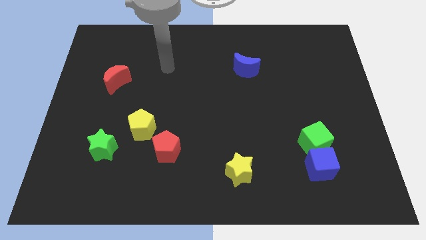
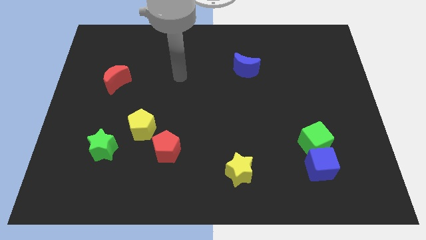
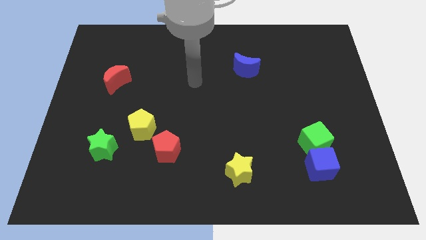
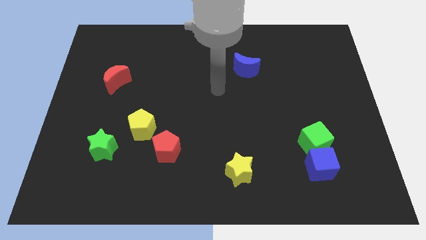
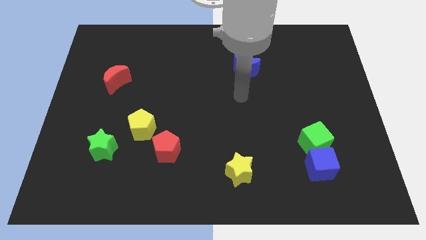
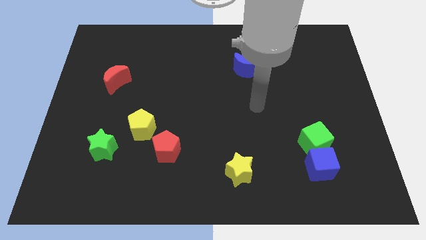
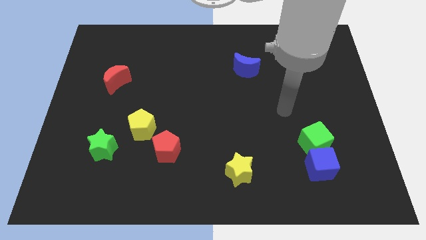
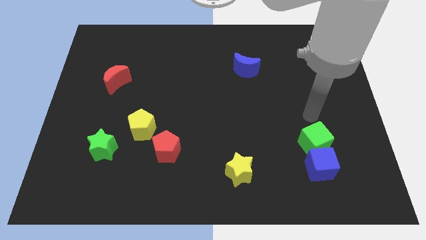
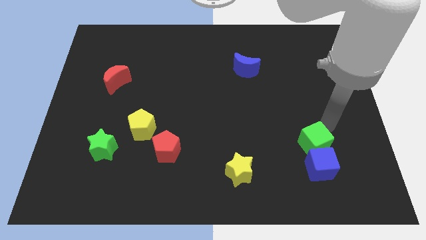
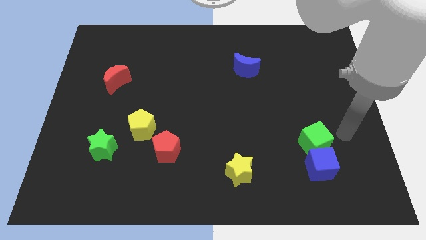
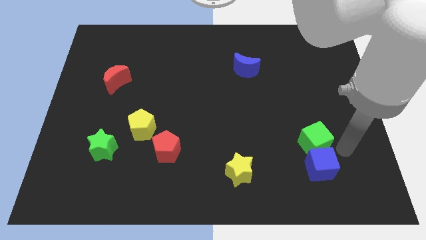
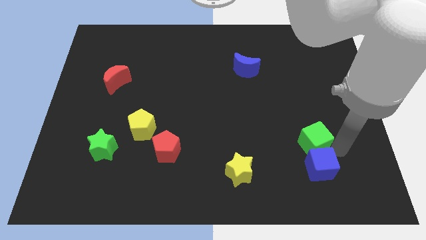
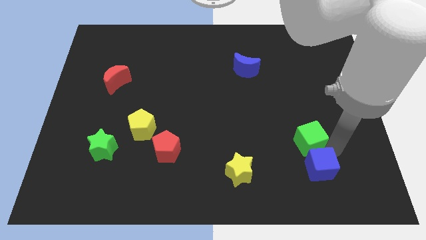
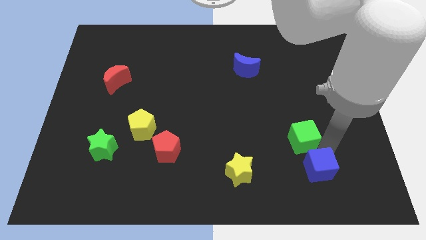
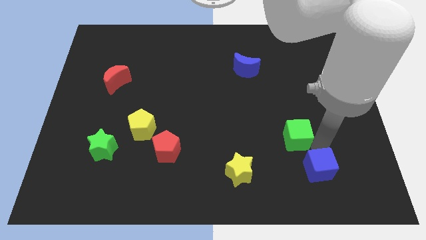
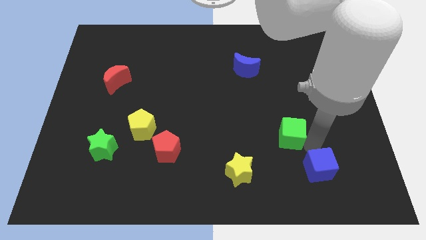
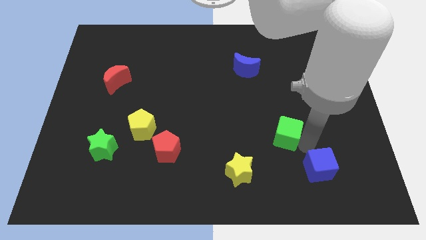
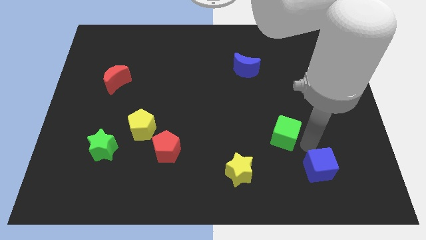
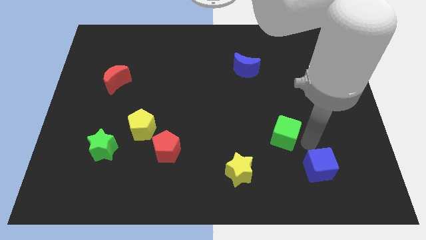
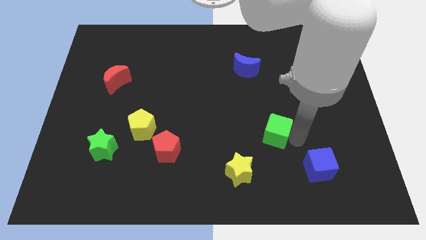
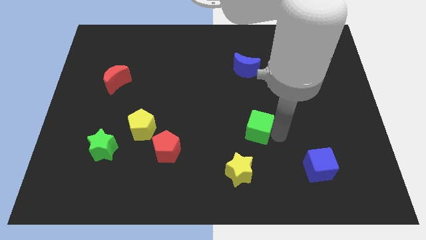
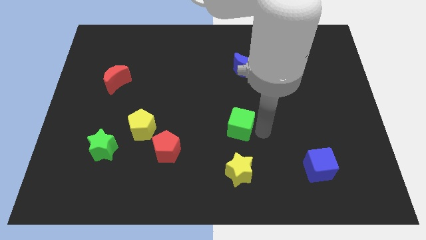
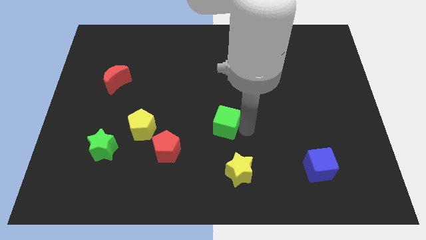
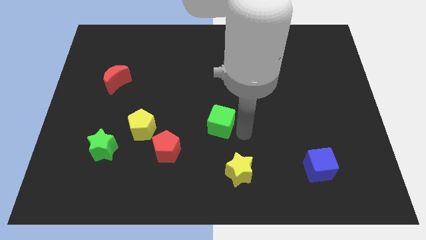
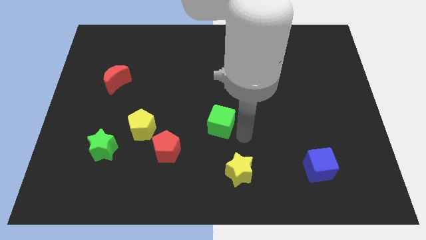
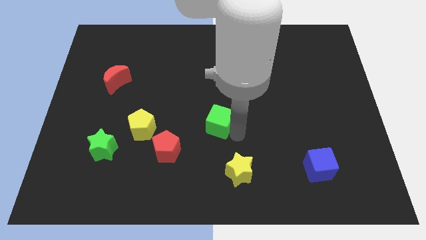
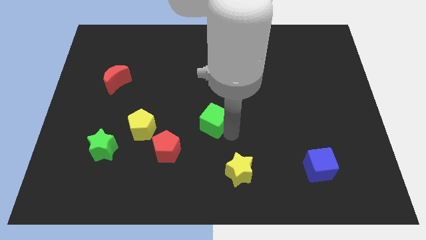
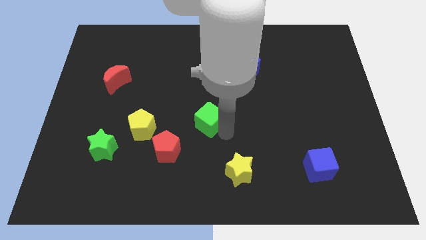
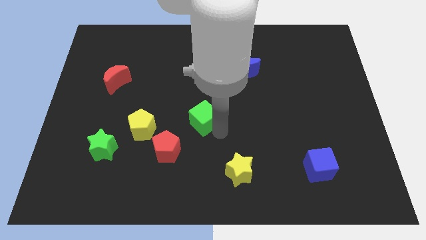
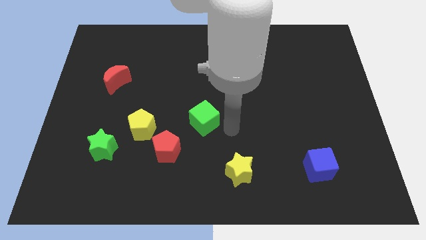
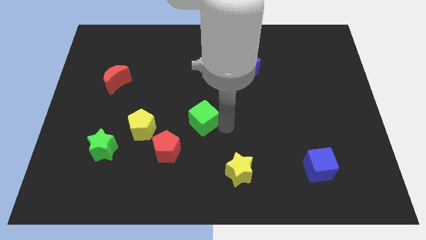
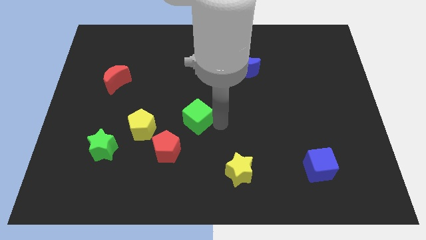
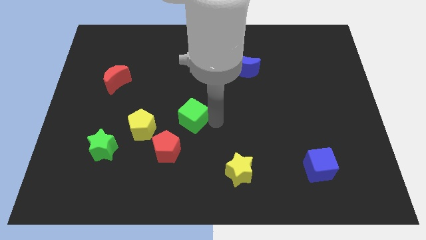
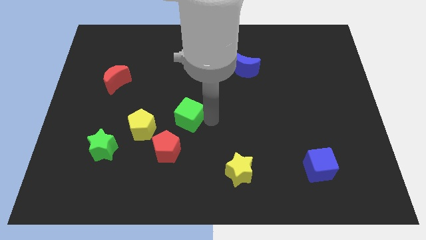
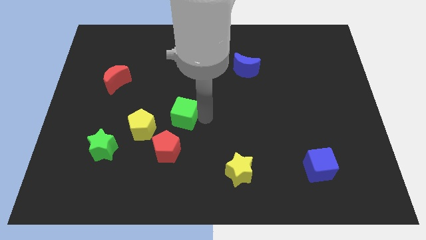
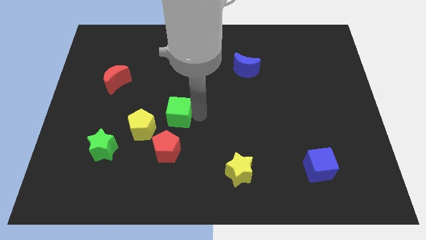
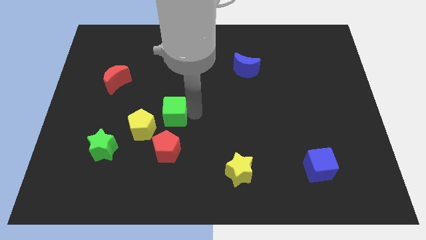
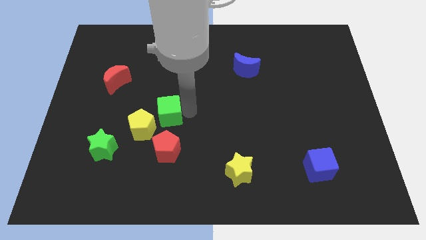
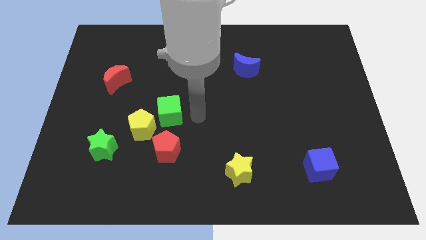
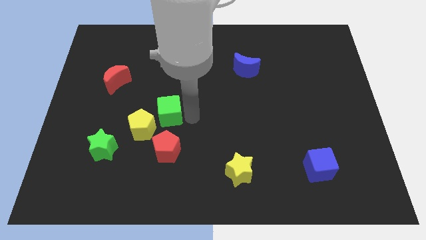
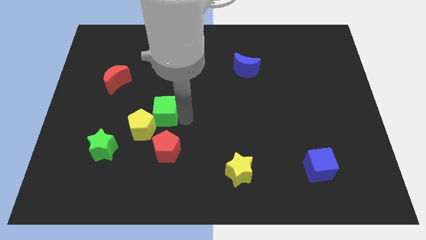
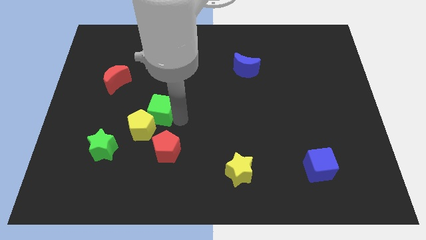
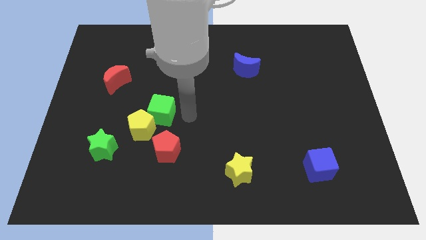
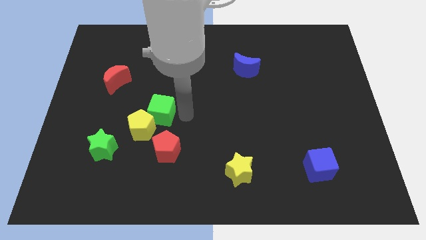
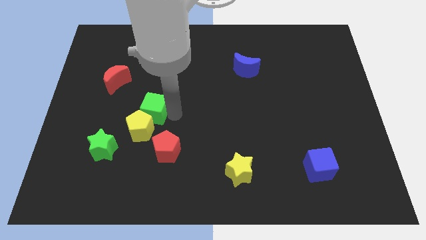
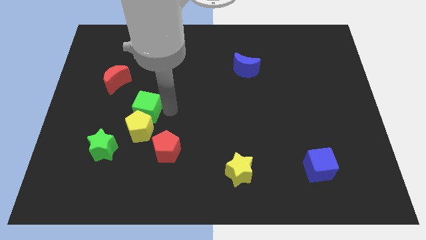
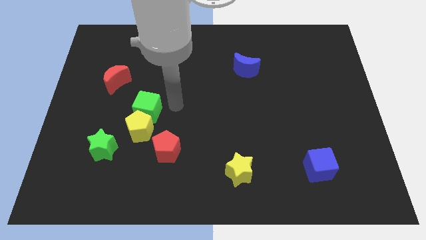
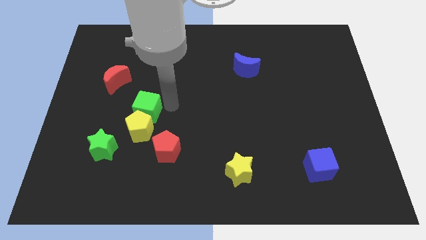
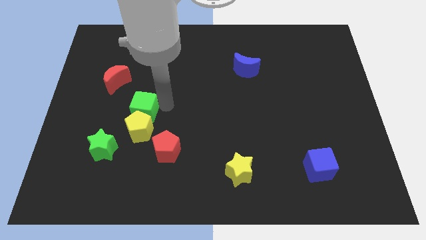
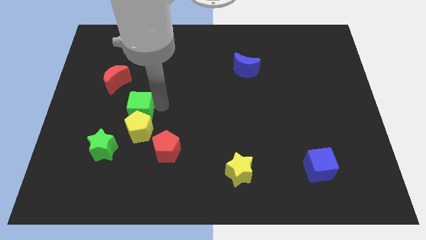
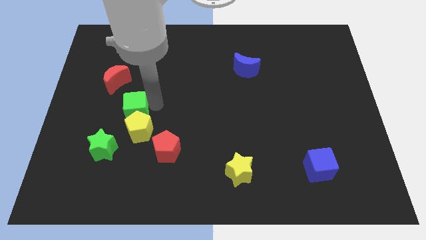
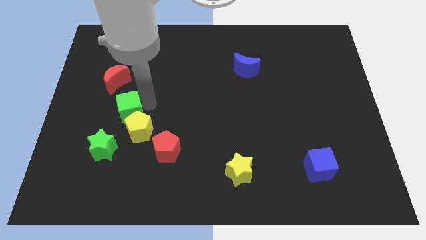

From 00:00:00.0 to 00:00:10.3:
put the green cube to the bottom side of the red moon

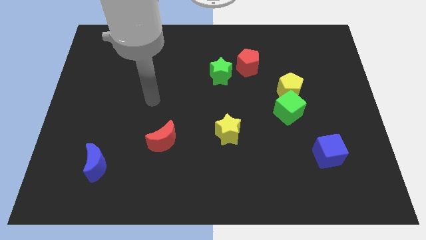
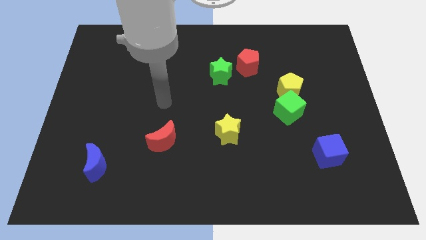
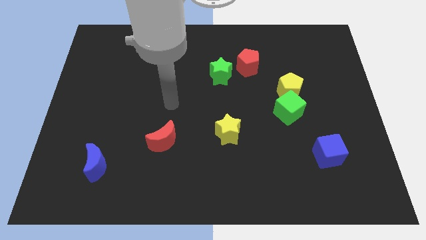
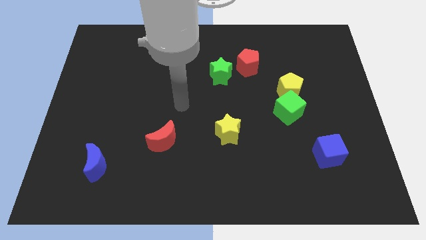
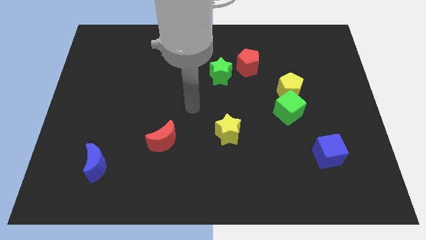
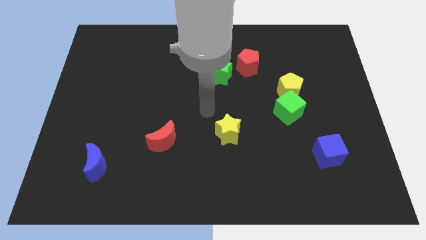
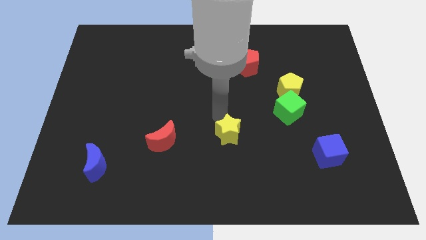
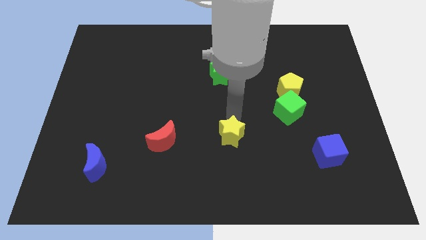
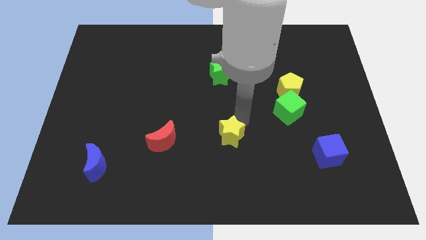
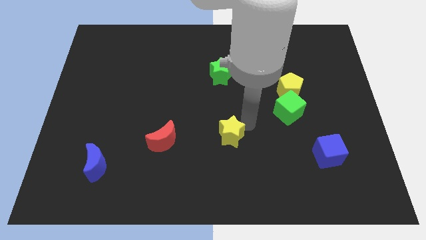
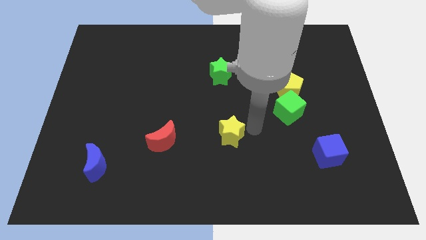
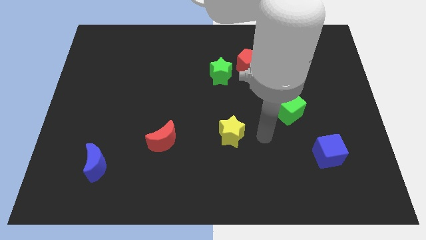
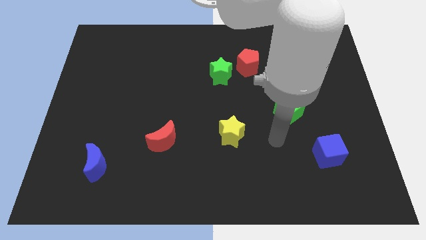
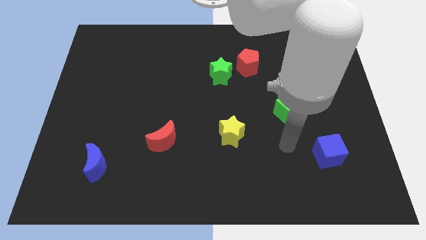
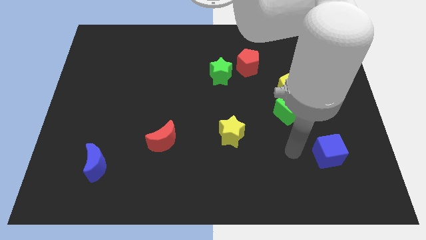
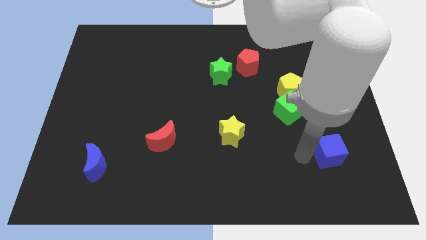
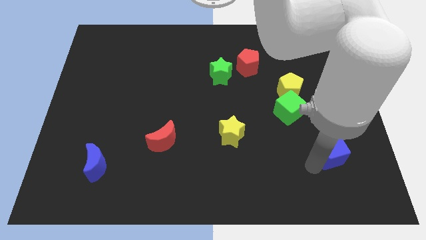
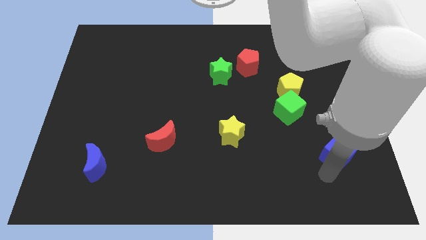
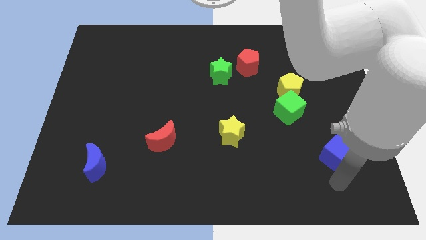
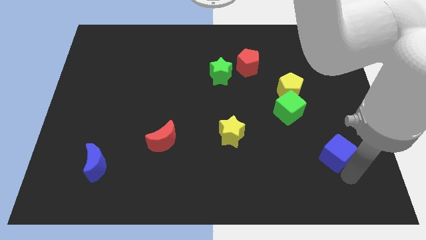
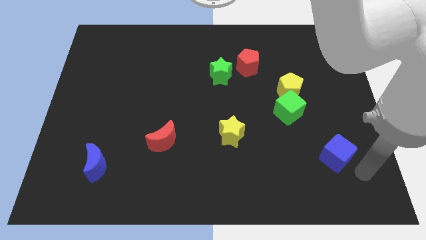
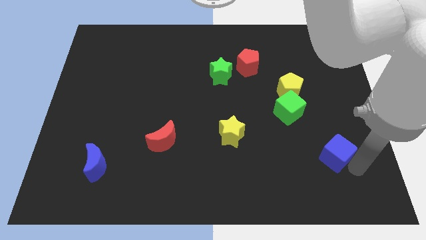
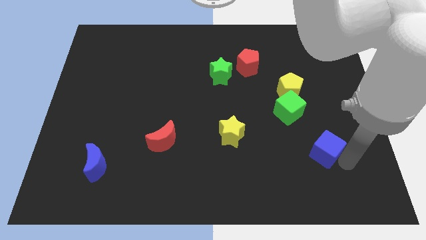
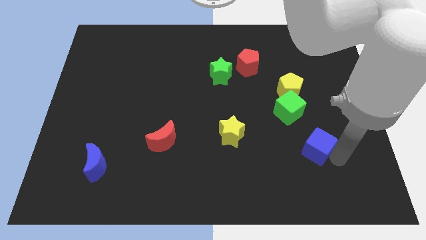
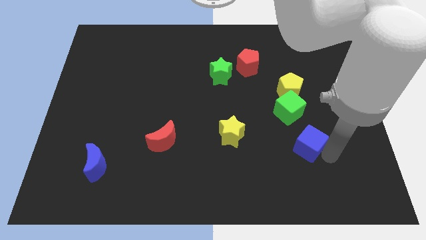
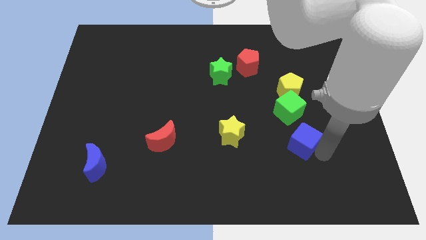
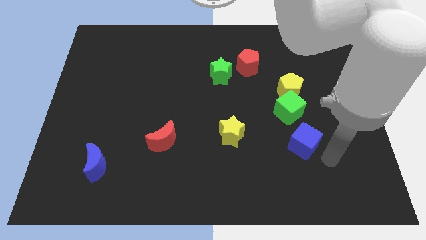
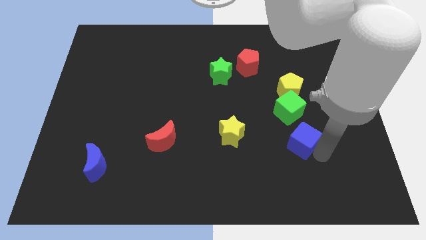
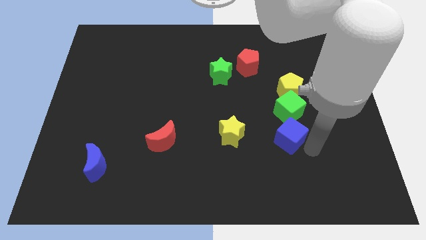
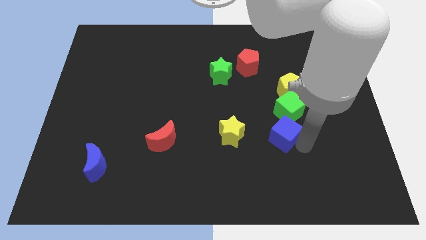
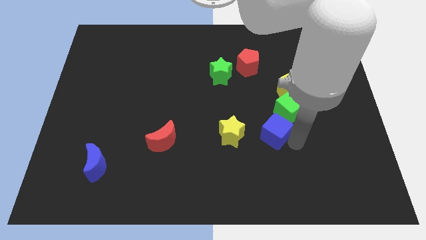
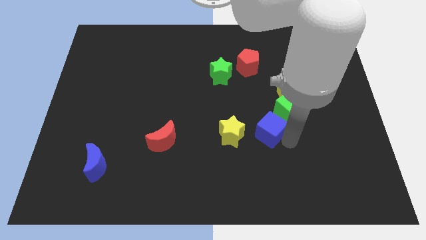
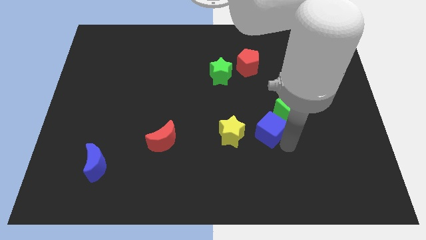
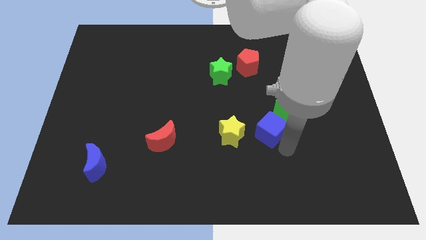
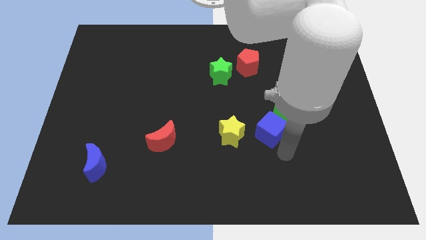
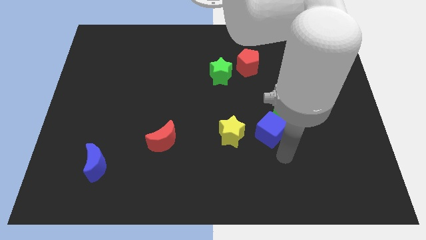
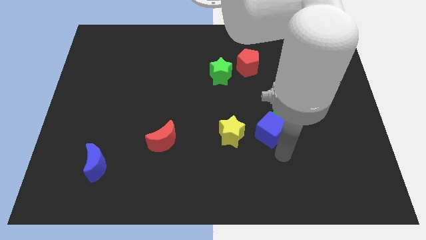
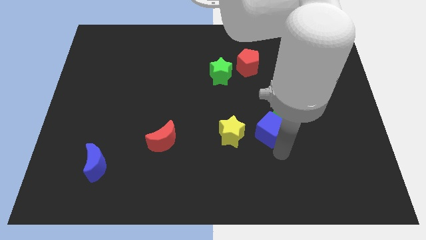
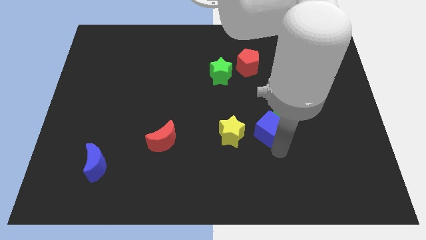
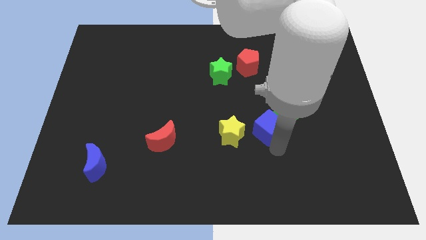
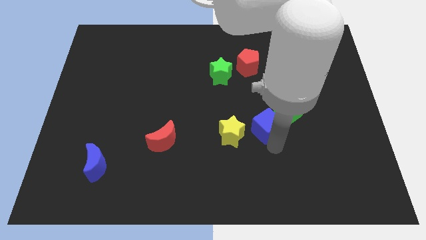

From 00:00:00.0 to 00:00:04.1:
slide the blue cube left of the green cube
